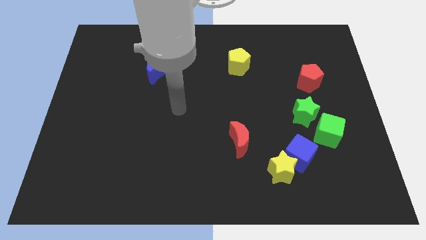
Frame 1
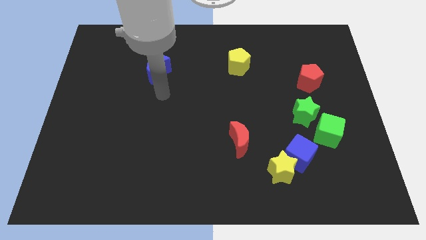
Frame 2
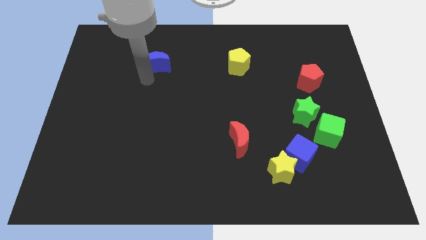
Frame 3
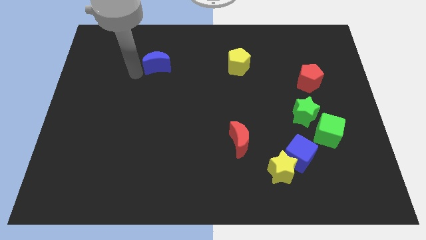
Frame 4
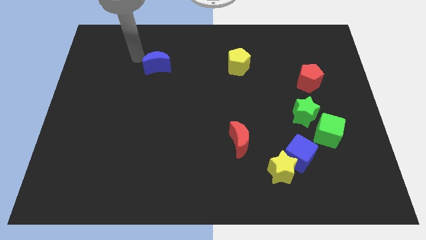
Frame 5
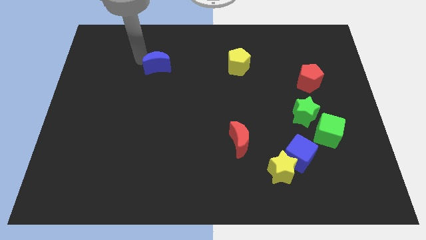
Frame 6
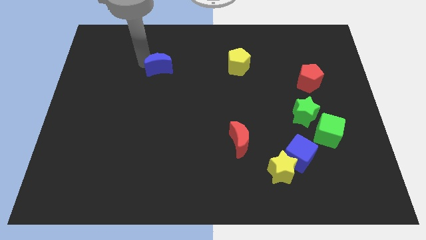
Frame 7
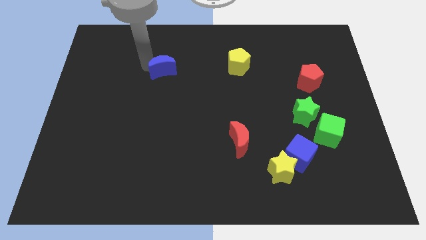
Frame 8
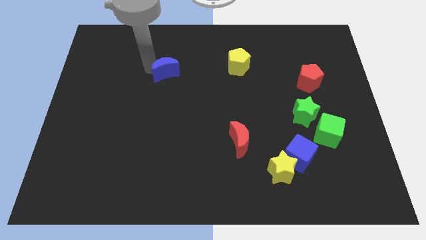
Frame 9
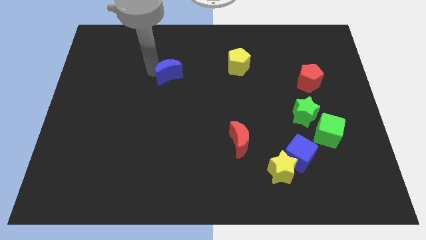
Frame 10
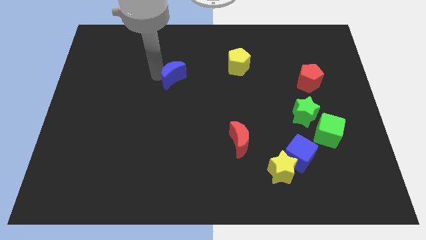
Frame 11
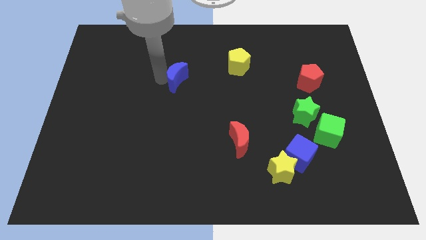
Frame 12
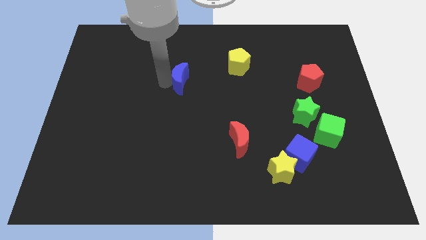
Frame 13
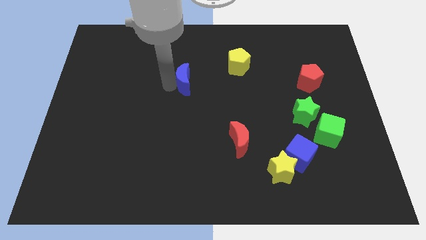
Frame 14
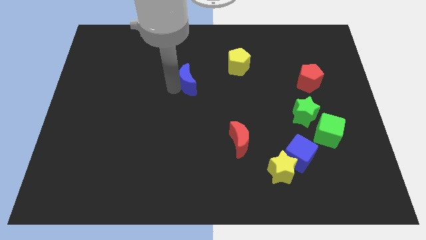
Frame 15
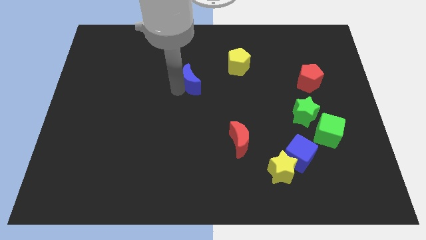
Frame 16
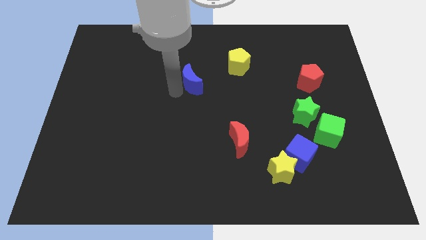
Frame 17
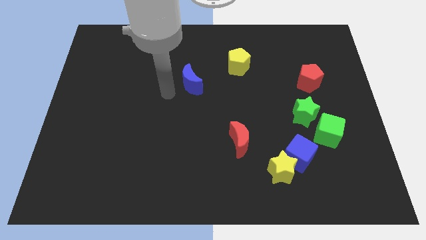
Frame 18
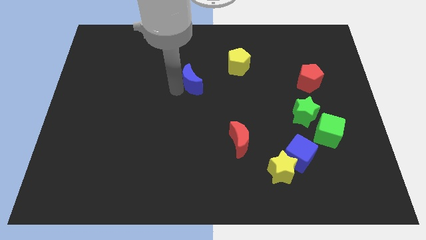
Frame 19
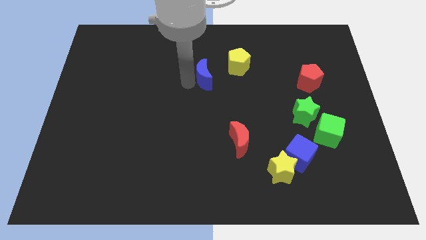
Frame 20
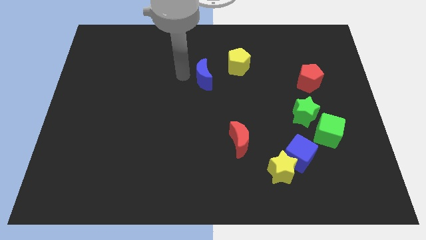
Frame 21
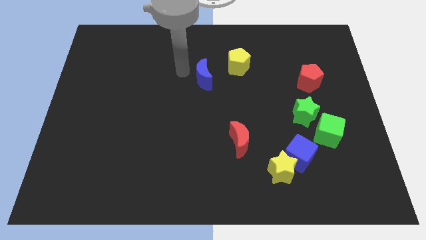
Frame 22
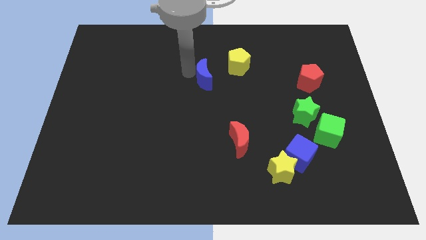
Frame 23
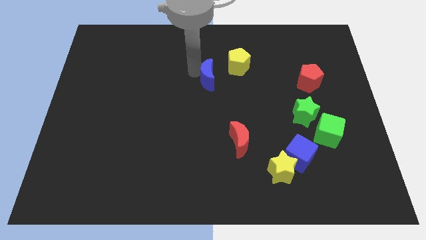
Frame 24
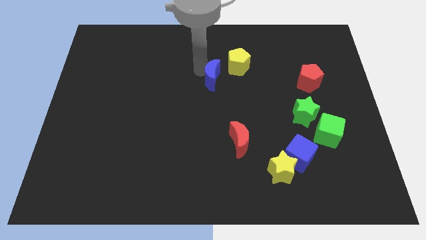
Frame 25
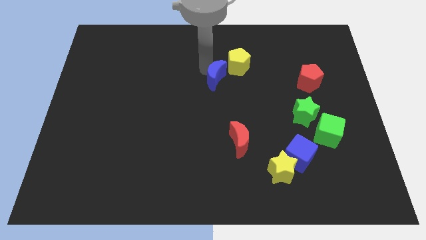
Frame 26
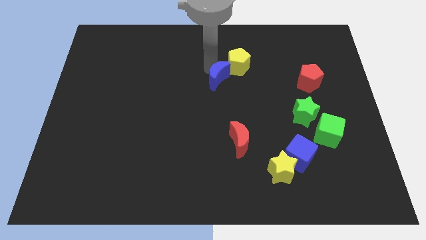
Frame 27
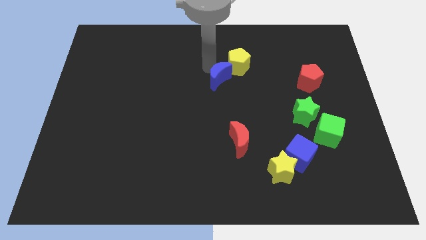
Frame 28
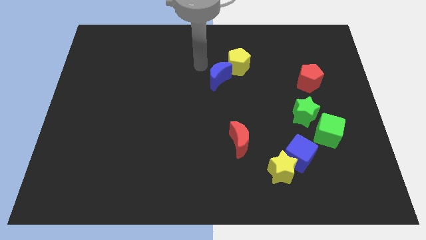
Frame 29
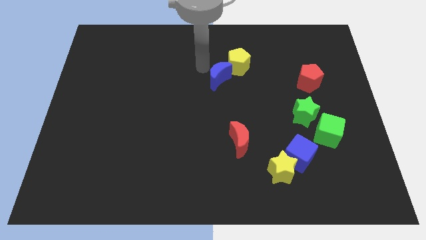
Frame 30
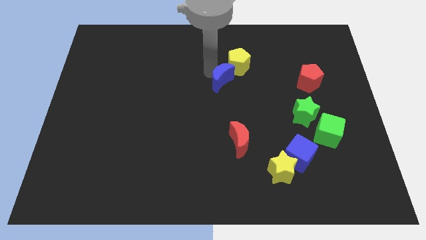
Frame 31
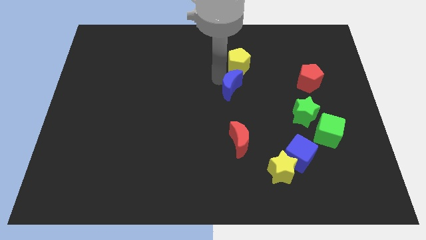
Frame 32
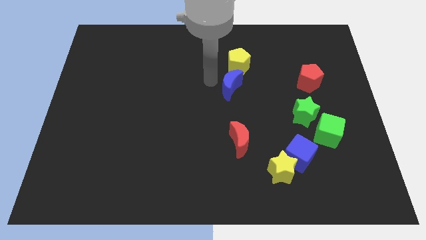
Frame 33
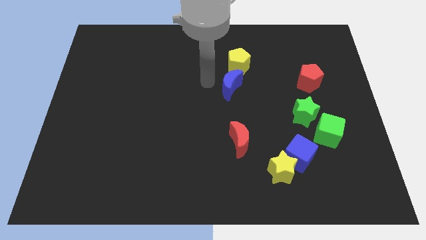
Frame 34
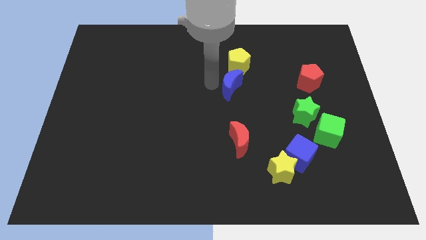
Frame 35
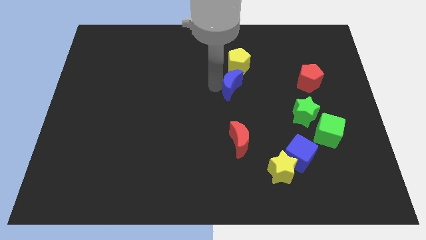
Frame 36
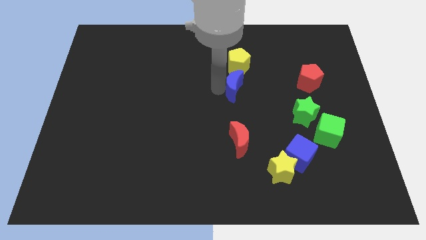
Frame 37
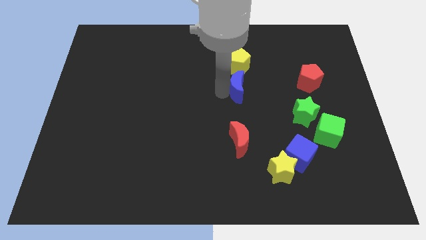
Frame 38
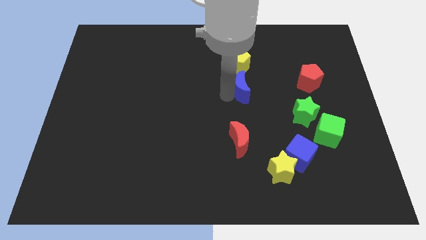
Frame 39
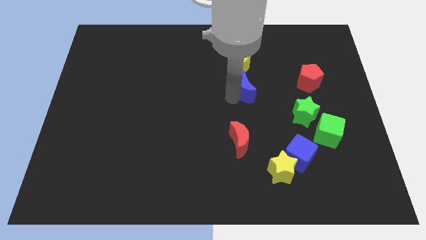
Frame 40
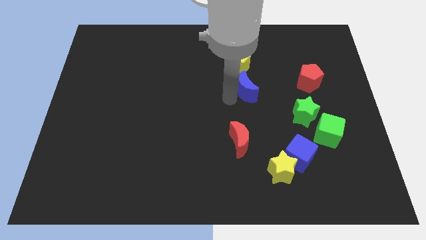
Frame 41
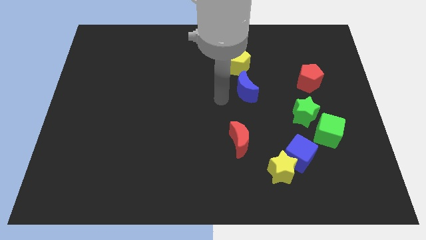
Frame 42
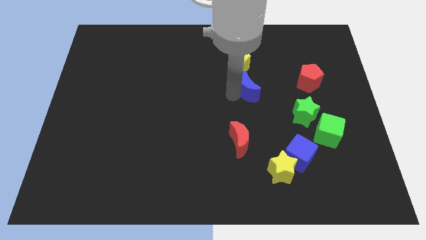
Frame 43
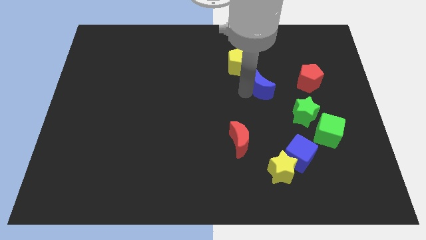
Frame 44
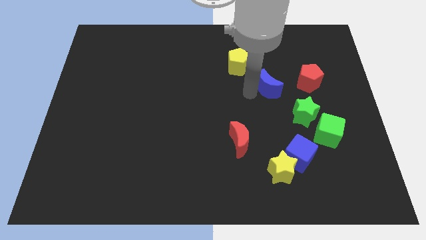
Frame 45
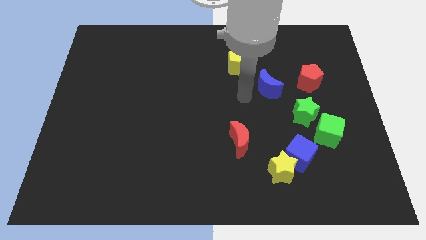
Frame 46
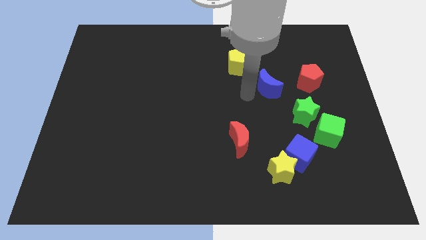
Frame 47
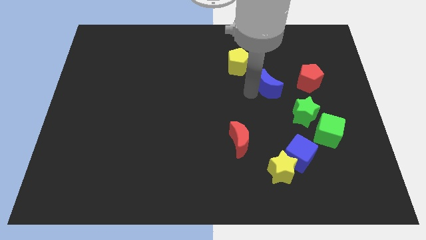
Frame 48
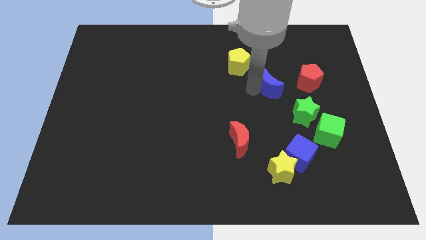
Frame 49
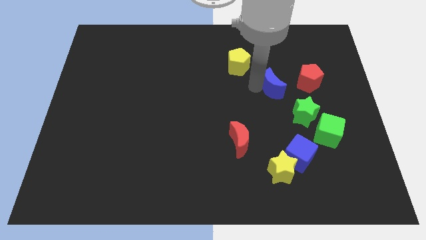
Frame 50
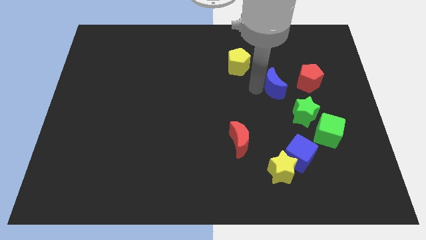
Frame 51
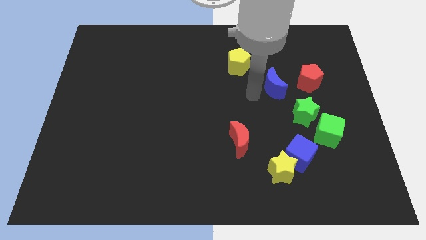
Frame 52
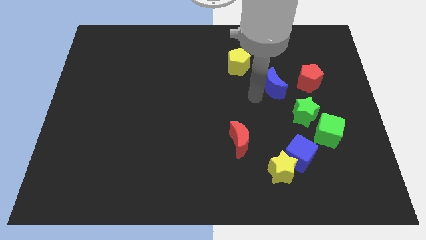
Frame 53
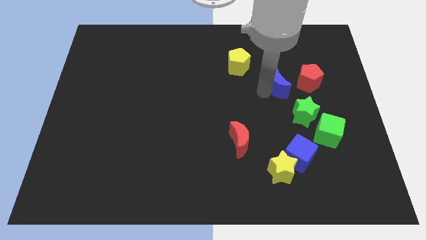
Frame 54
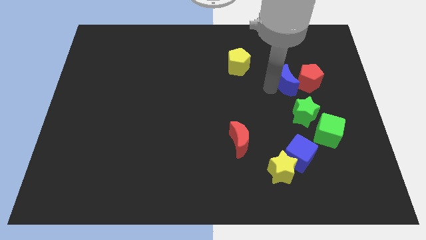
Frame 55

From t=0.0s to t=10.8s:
move the blue moon next to the red pentagon
